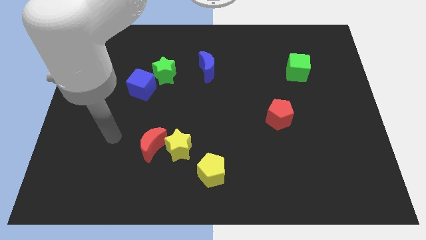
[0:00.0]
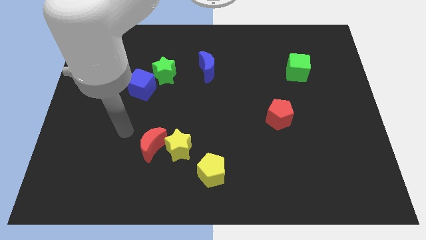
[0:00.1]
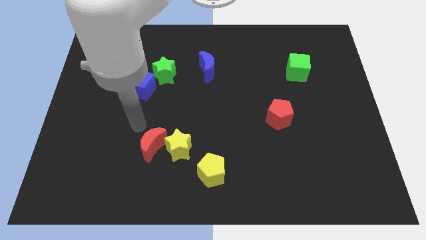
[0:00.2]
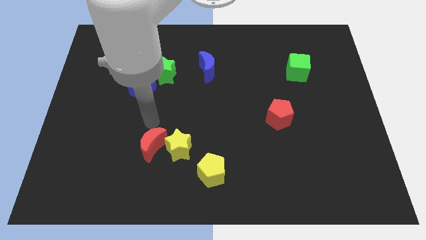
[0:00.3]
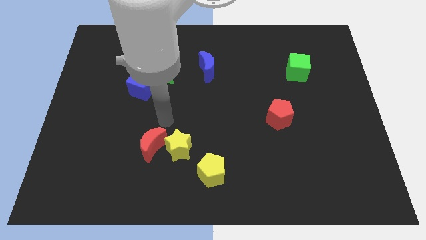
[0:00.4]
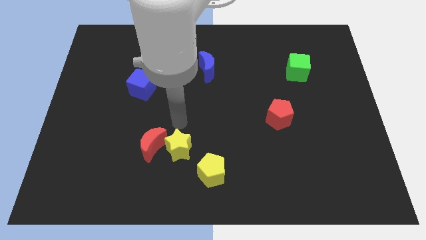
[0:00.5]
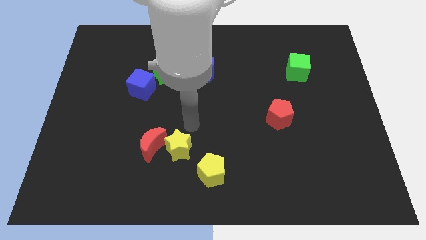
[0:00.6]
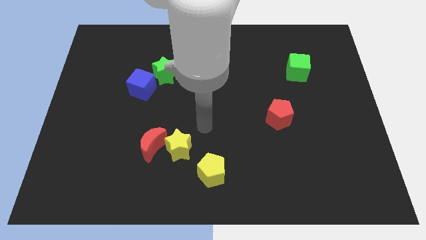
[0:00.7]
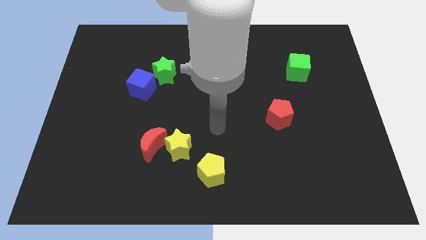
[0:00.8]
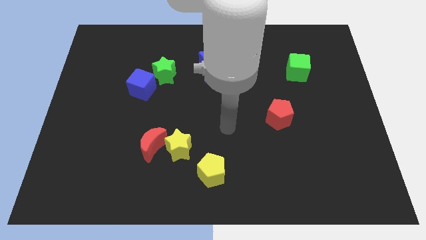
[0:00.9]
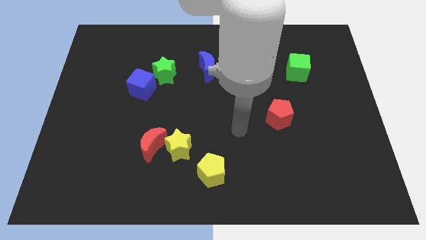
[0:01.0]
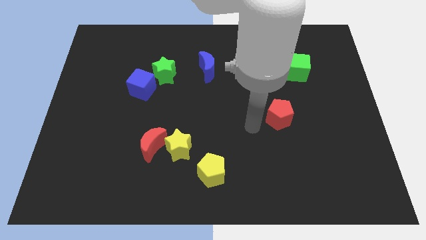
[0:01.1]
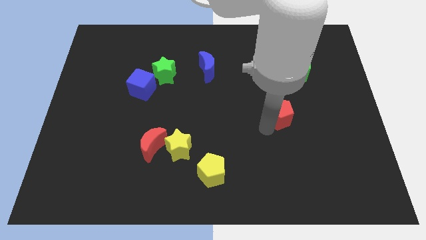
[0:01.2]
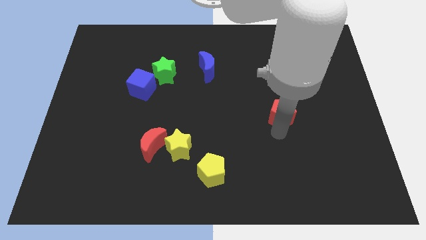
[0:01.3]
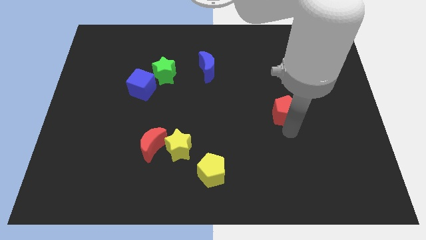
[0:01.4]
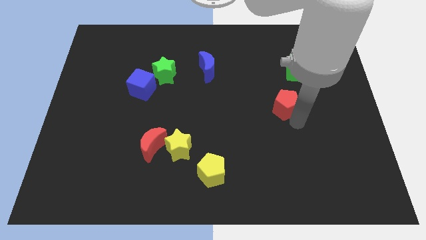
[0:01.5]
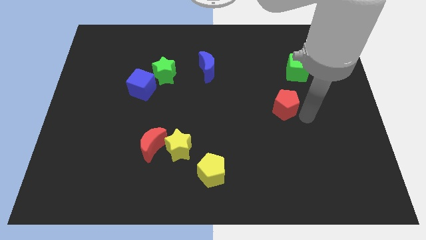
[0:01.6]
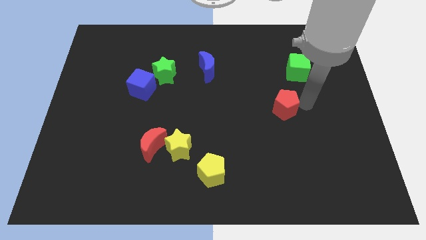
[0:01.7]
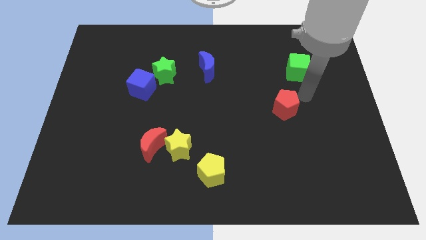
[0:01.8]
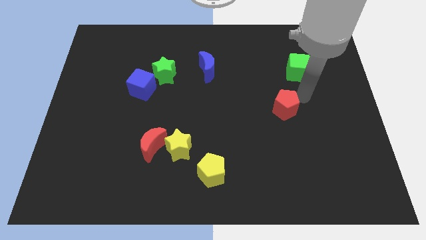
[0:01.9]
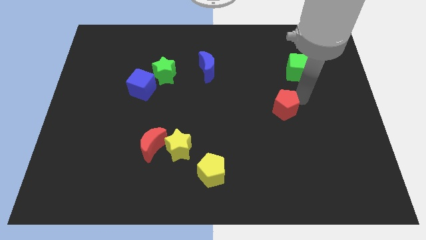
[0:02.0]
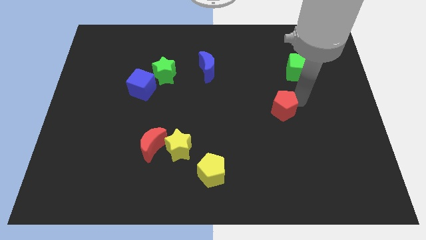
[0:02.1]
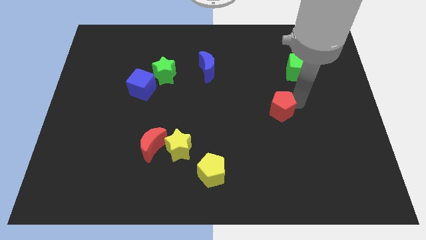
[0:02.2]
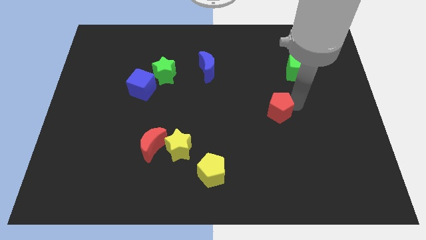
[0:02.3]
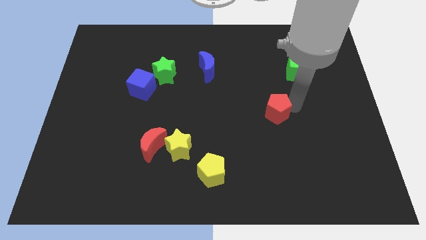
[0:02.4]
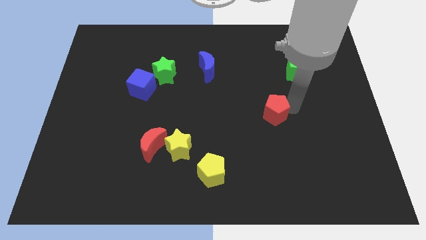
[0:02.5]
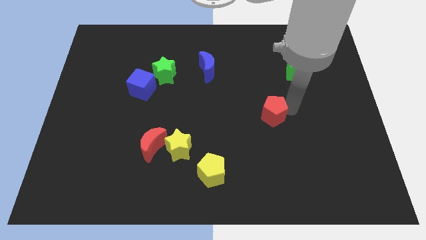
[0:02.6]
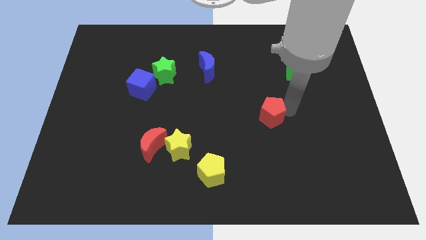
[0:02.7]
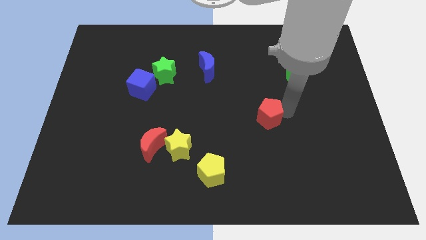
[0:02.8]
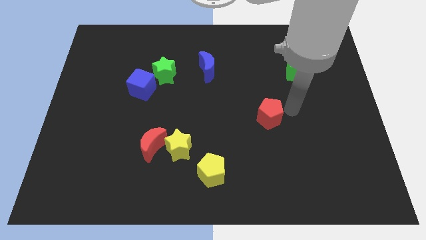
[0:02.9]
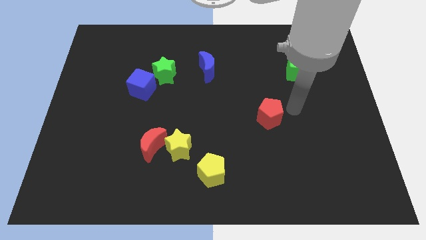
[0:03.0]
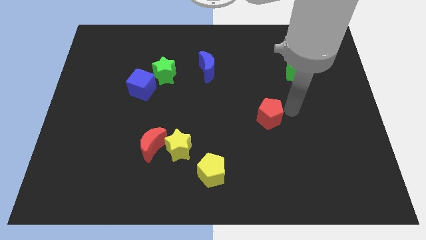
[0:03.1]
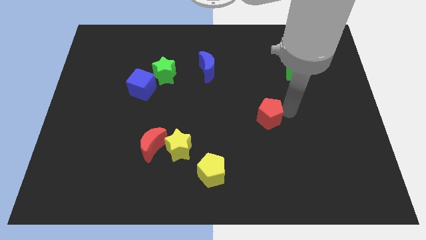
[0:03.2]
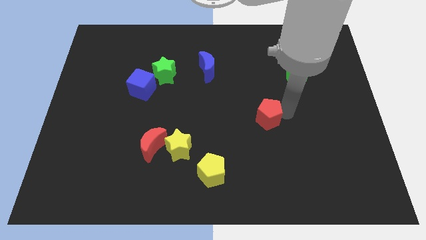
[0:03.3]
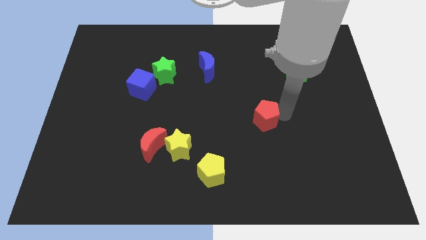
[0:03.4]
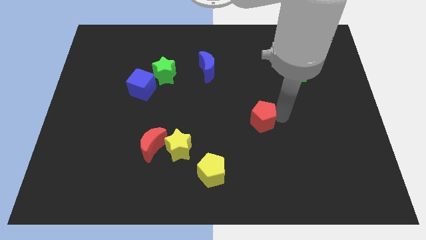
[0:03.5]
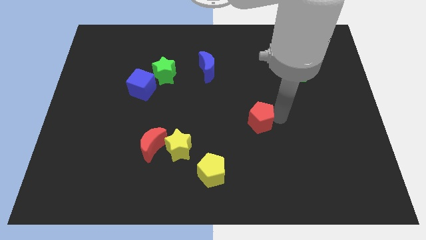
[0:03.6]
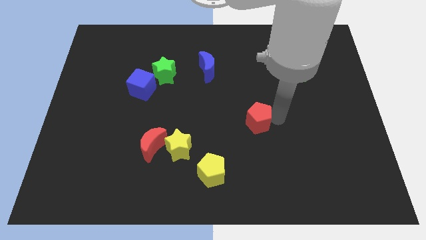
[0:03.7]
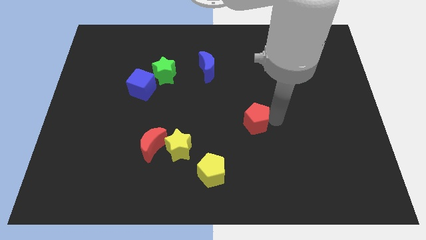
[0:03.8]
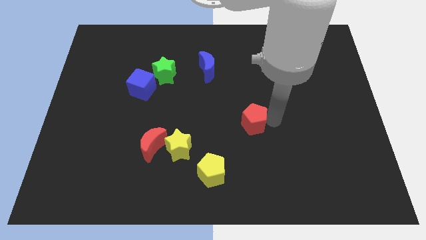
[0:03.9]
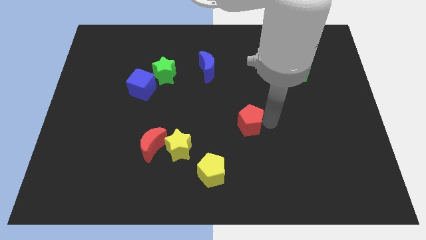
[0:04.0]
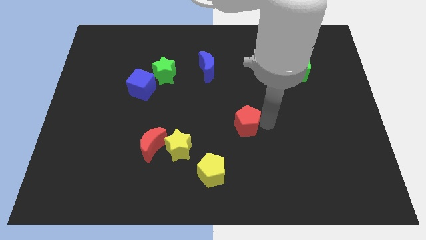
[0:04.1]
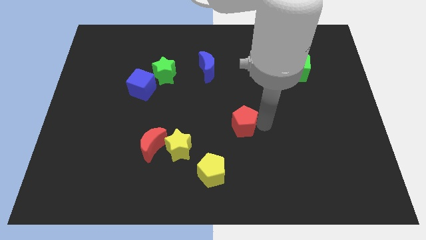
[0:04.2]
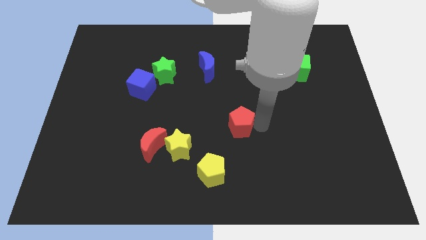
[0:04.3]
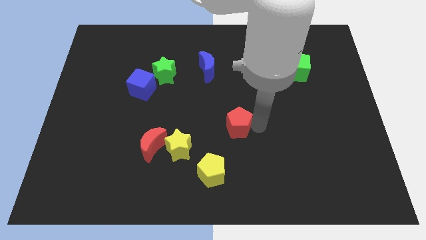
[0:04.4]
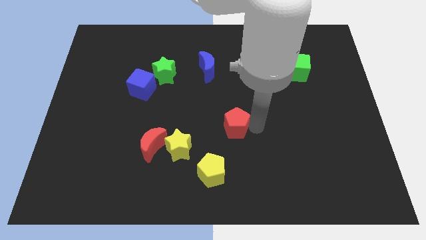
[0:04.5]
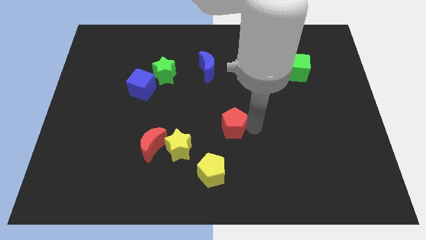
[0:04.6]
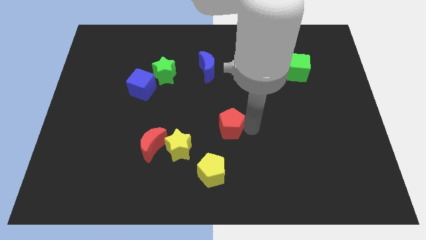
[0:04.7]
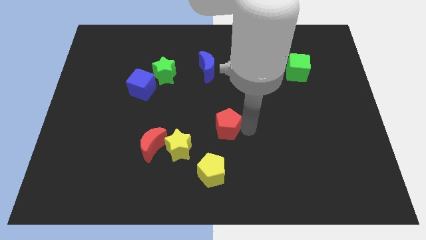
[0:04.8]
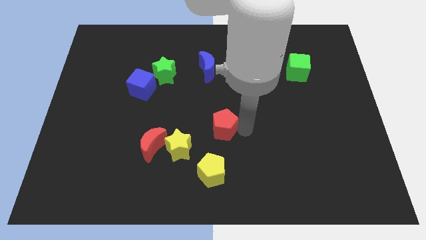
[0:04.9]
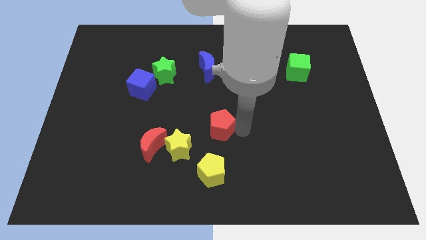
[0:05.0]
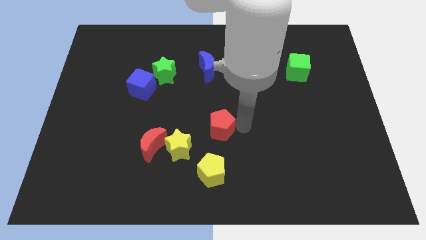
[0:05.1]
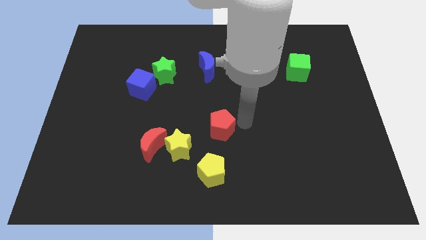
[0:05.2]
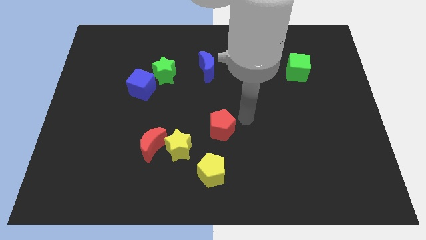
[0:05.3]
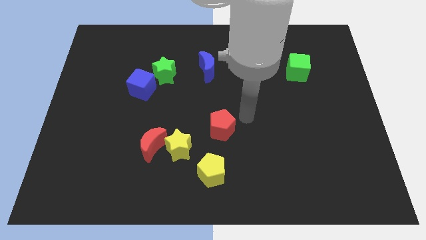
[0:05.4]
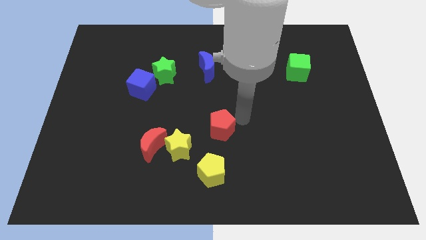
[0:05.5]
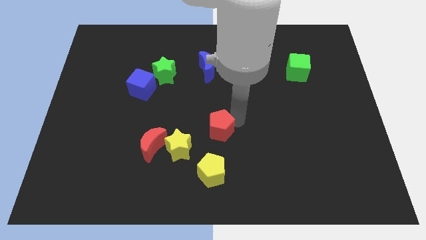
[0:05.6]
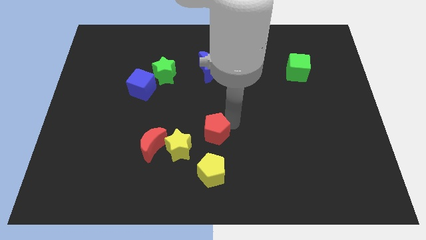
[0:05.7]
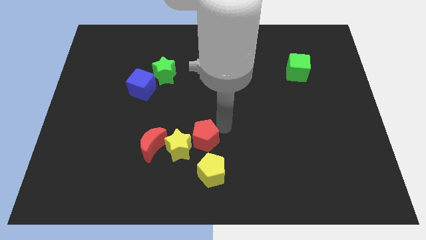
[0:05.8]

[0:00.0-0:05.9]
slide the red pentagon close to the yellow star

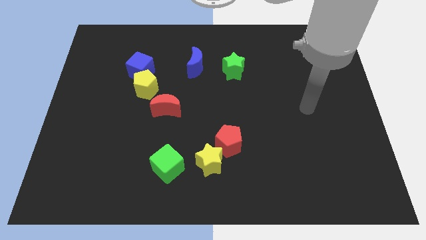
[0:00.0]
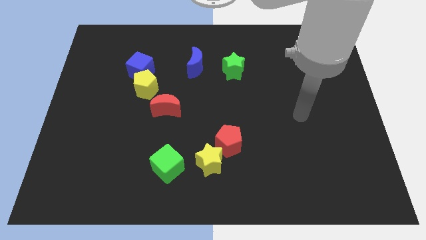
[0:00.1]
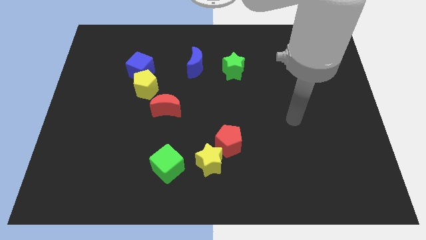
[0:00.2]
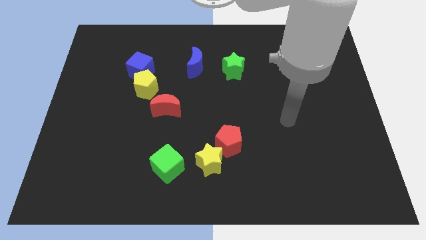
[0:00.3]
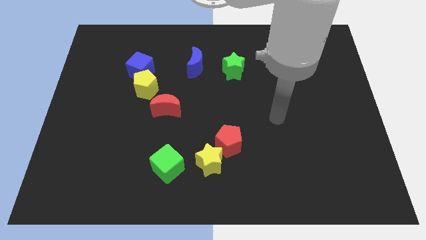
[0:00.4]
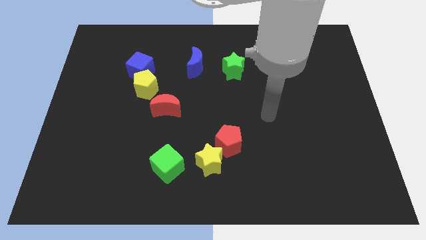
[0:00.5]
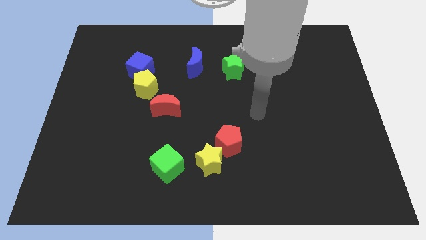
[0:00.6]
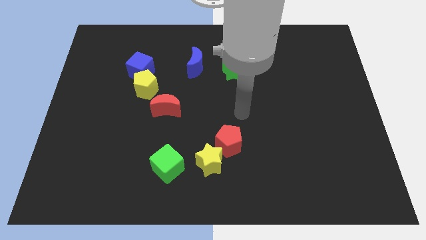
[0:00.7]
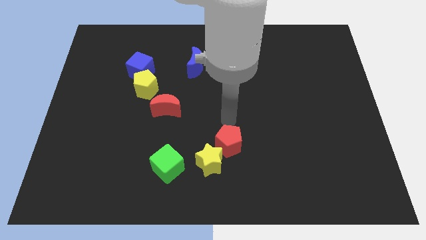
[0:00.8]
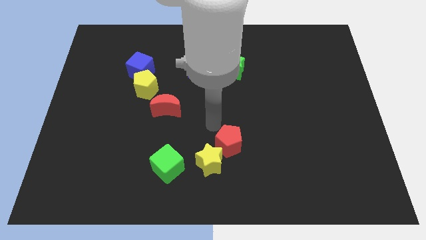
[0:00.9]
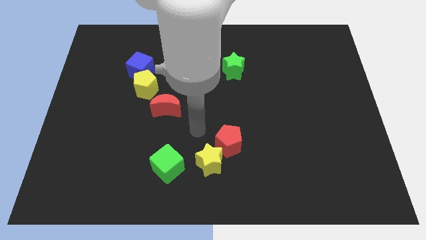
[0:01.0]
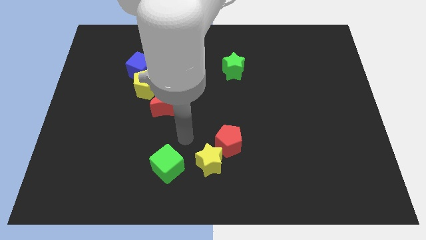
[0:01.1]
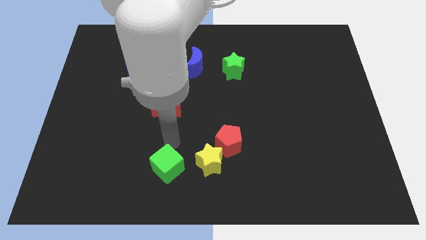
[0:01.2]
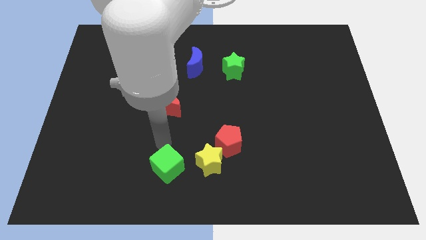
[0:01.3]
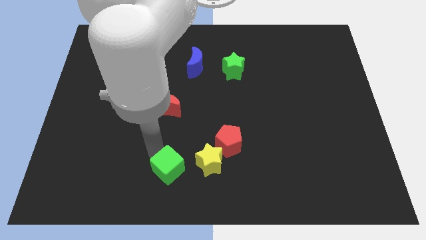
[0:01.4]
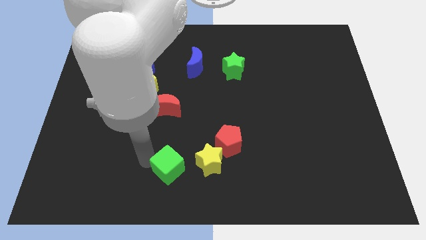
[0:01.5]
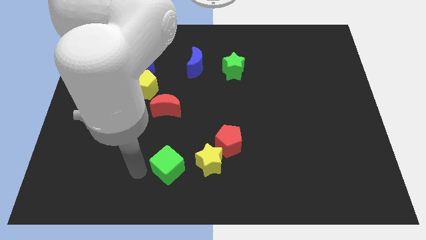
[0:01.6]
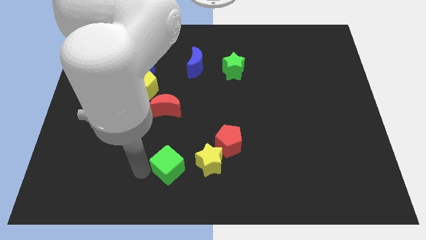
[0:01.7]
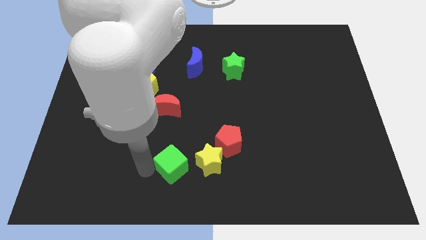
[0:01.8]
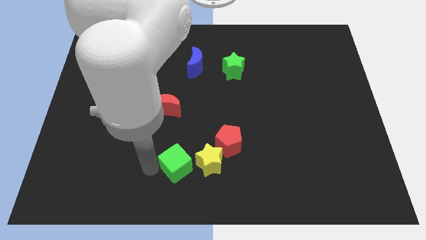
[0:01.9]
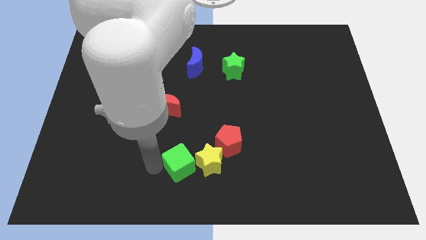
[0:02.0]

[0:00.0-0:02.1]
put the green cube towards the yellow star
